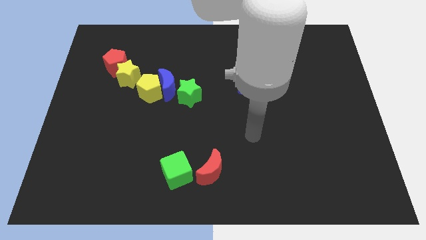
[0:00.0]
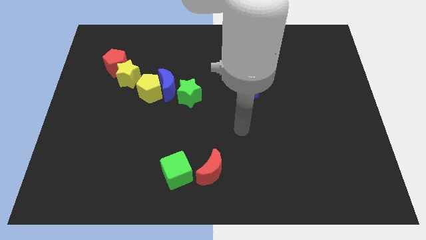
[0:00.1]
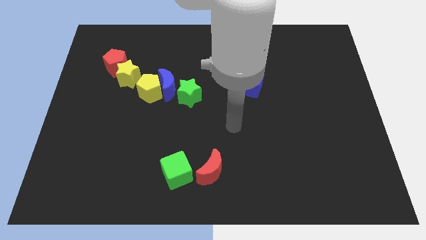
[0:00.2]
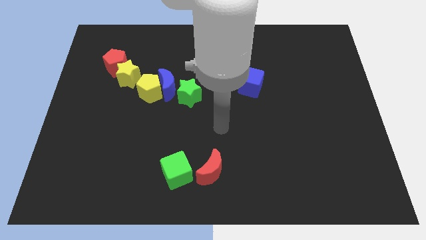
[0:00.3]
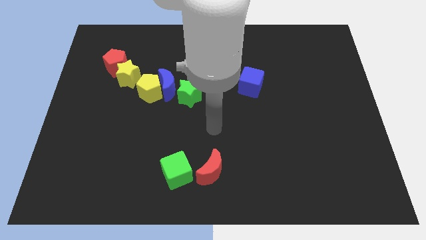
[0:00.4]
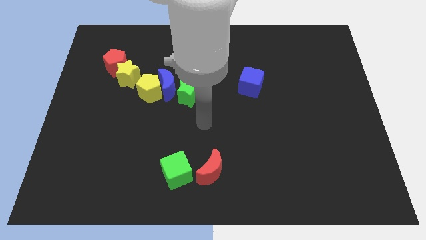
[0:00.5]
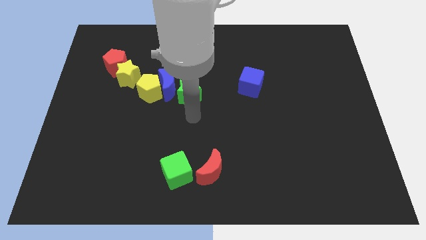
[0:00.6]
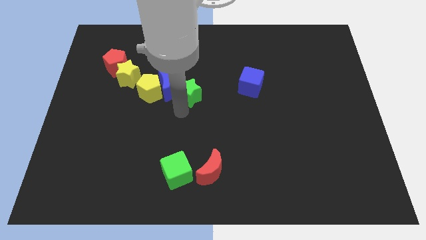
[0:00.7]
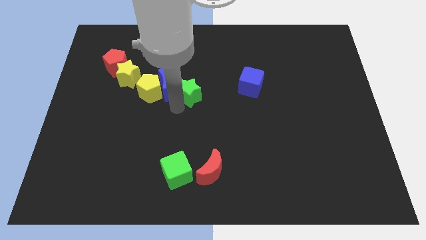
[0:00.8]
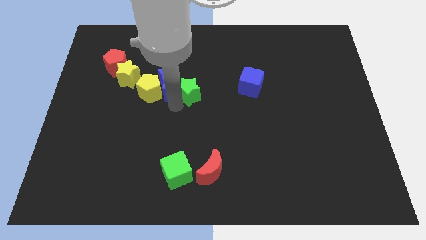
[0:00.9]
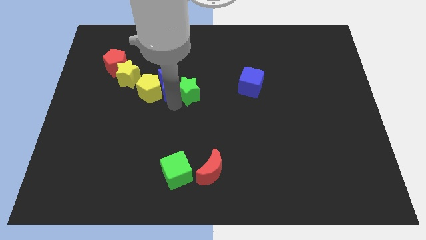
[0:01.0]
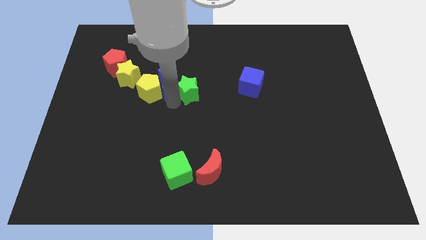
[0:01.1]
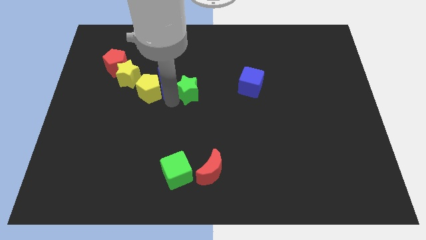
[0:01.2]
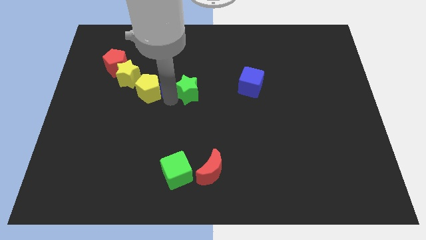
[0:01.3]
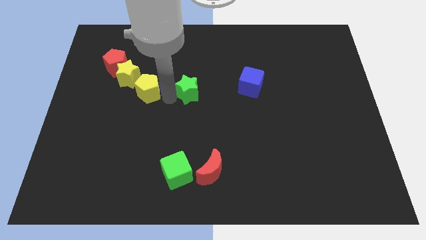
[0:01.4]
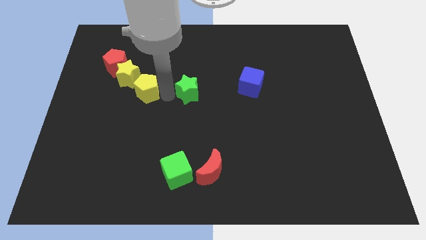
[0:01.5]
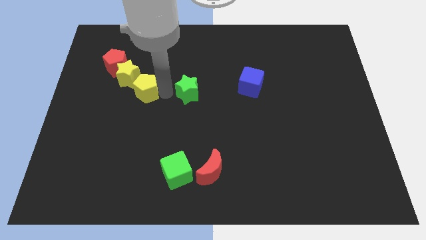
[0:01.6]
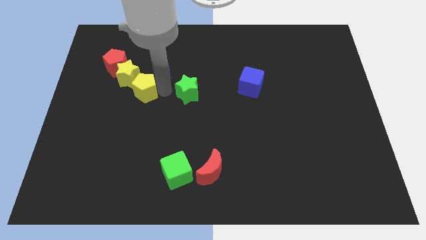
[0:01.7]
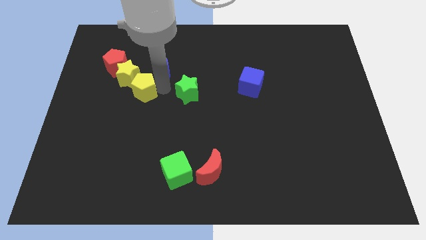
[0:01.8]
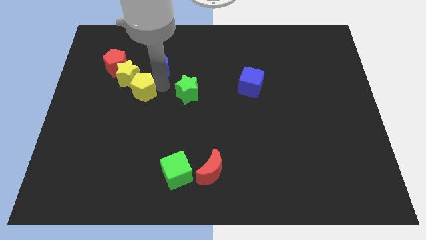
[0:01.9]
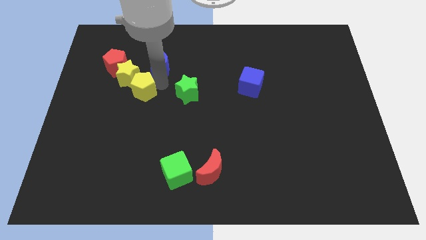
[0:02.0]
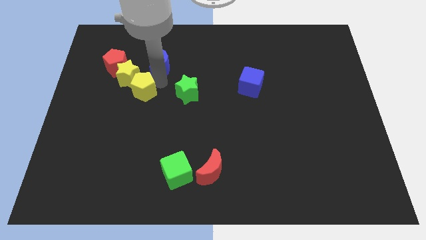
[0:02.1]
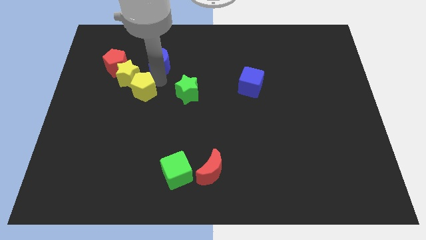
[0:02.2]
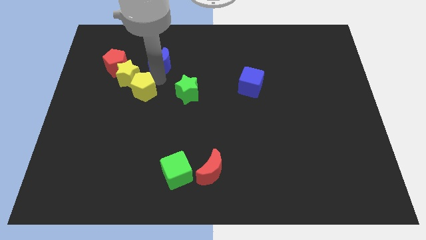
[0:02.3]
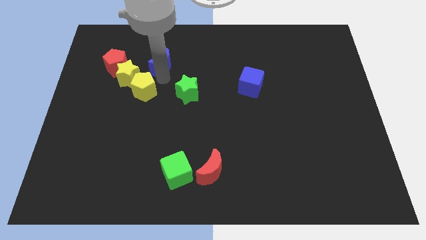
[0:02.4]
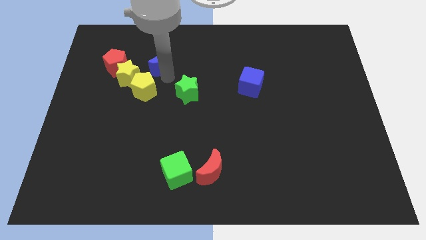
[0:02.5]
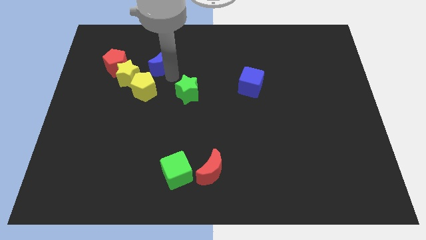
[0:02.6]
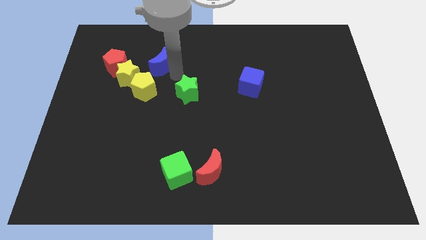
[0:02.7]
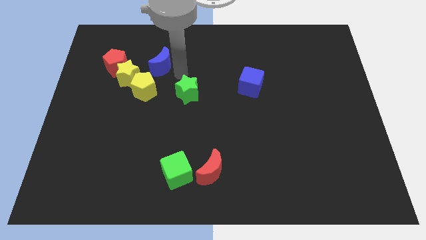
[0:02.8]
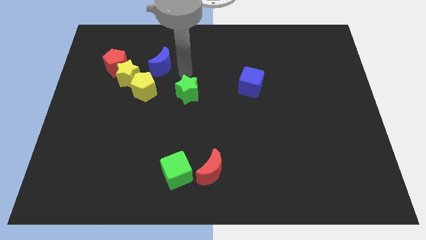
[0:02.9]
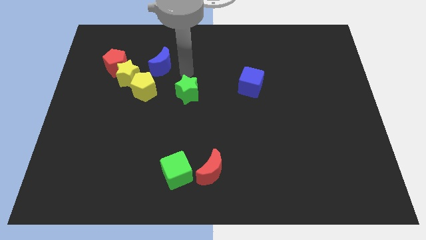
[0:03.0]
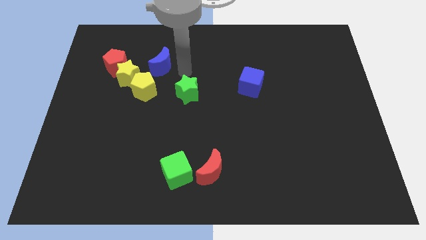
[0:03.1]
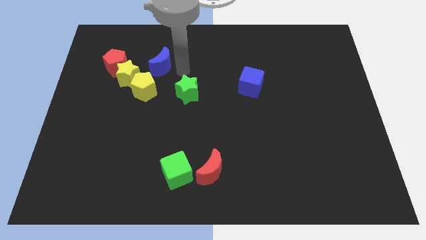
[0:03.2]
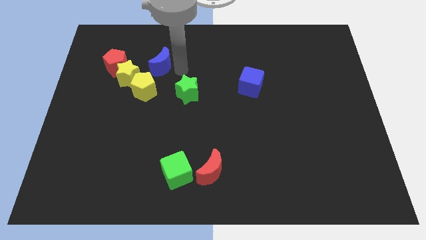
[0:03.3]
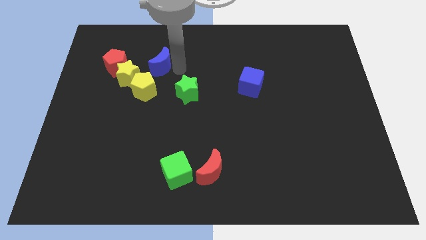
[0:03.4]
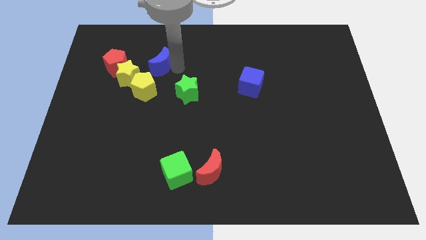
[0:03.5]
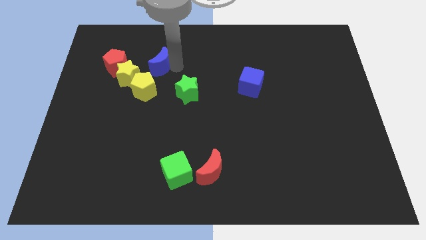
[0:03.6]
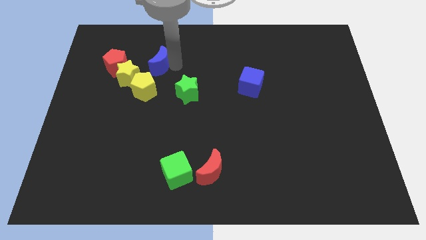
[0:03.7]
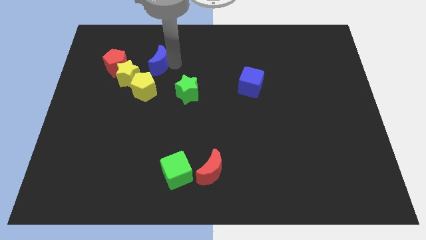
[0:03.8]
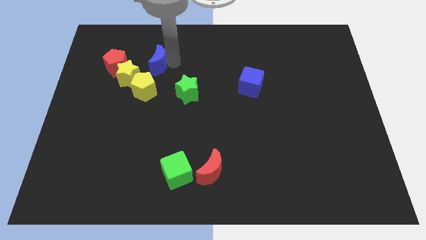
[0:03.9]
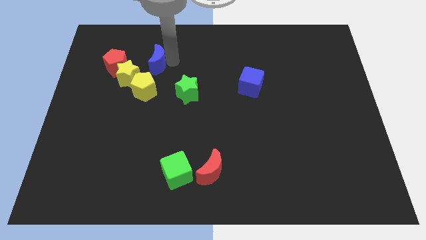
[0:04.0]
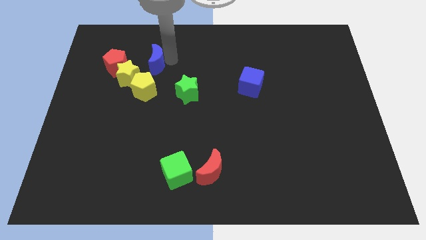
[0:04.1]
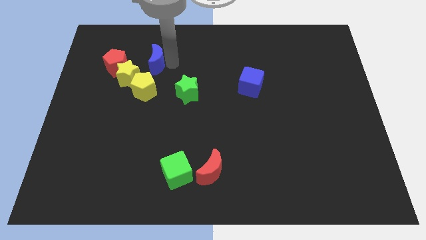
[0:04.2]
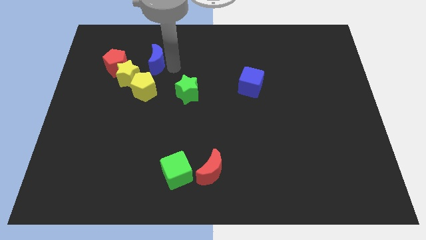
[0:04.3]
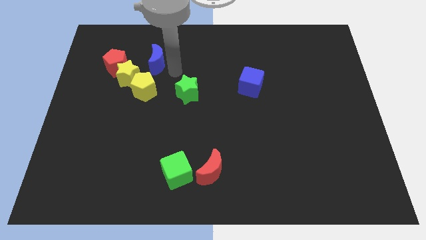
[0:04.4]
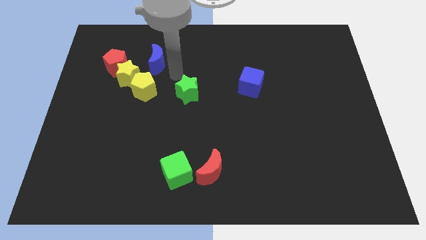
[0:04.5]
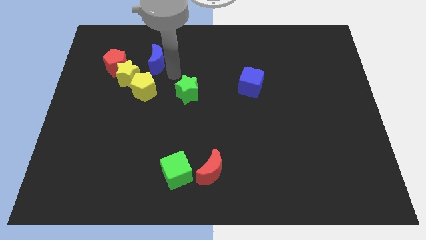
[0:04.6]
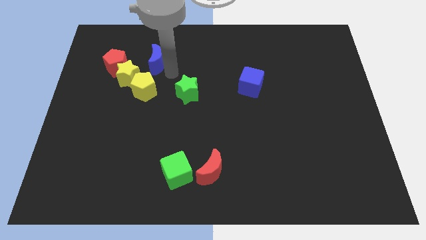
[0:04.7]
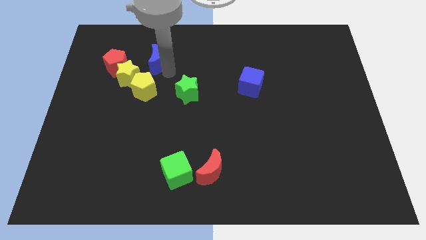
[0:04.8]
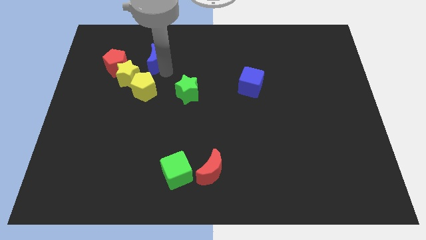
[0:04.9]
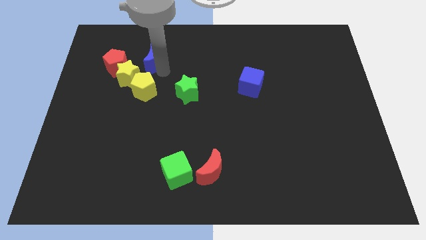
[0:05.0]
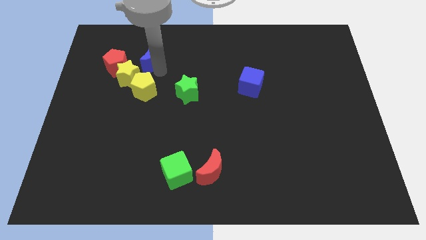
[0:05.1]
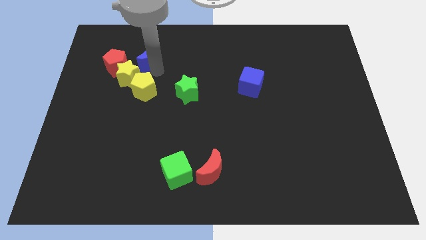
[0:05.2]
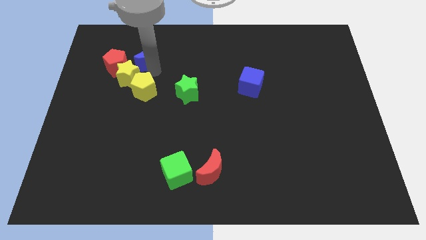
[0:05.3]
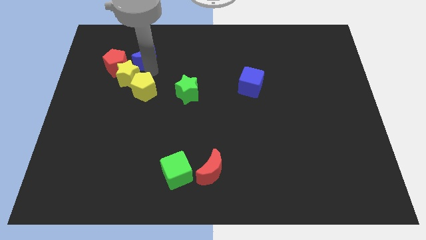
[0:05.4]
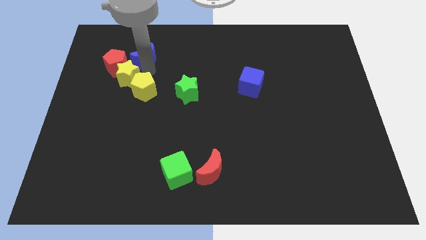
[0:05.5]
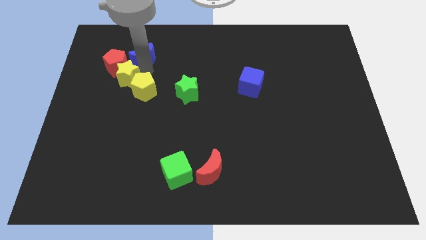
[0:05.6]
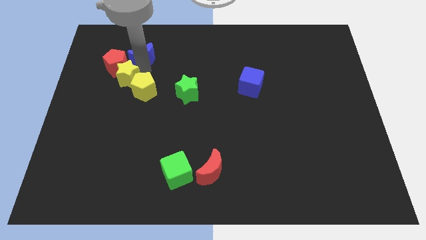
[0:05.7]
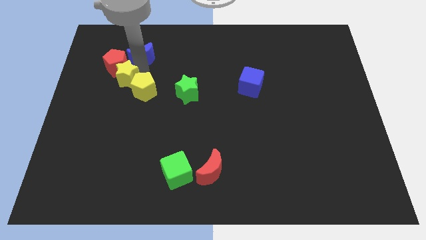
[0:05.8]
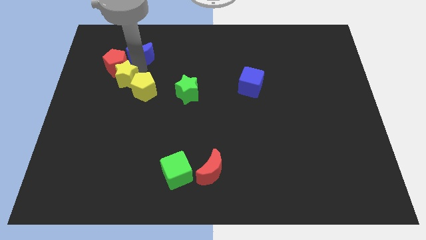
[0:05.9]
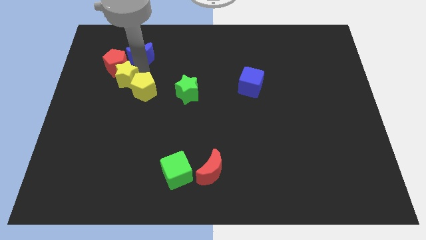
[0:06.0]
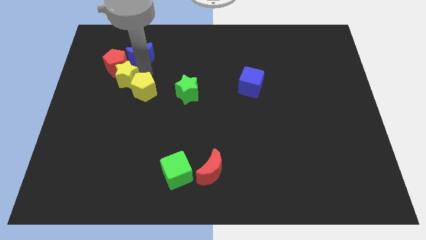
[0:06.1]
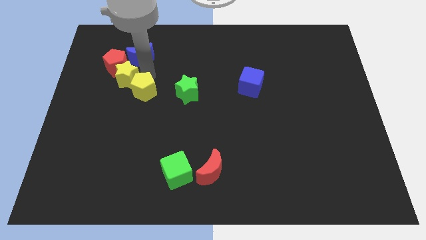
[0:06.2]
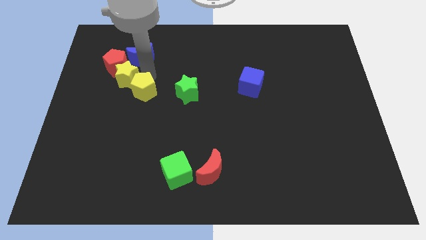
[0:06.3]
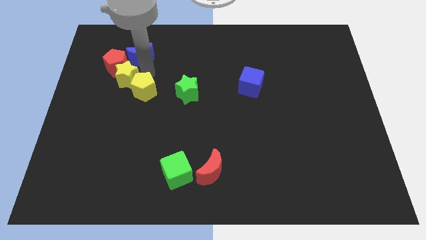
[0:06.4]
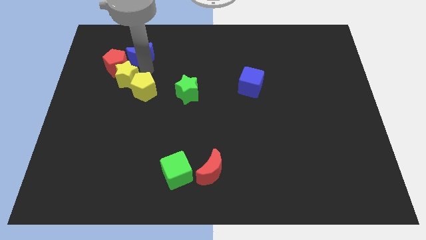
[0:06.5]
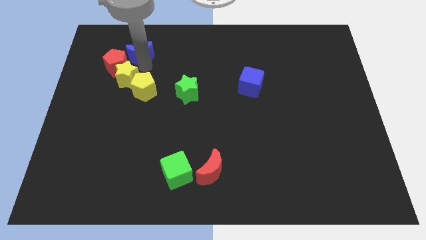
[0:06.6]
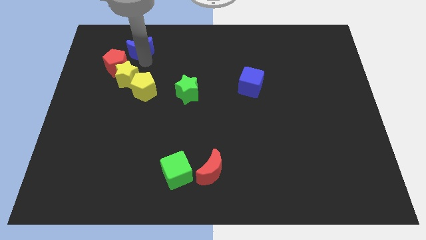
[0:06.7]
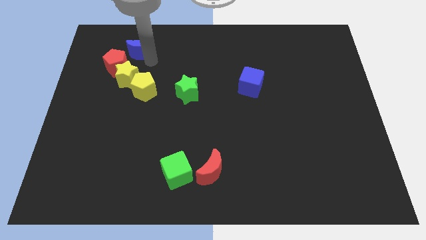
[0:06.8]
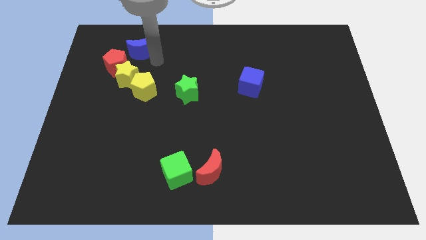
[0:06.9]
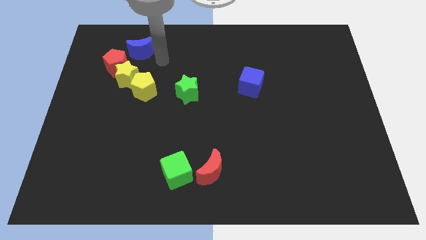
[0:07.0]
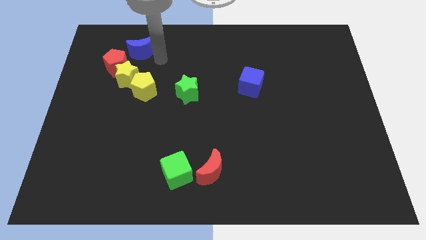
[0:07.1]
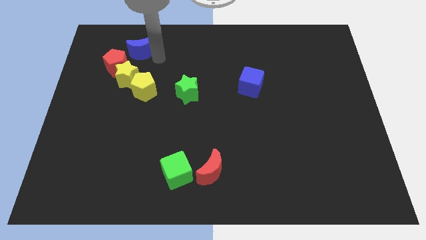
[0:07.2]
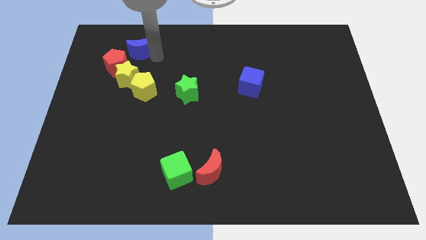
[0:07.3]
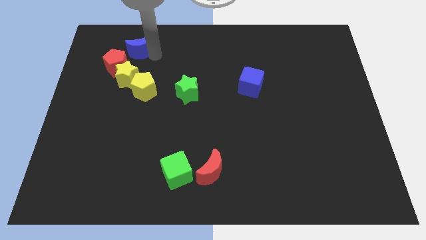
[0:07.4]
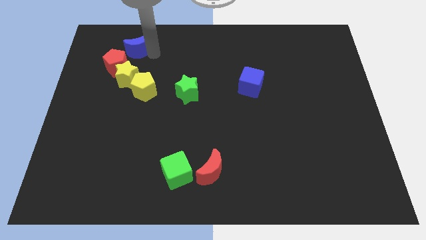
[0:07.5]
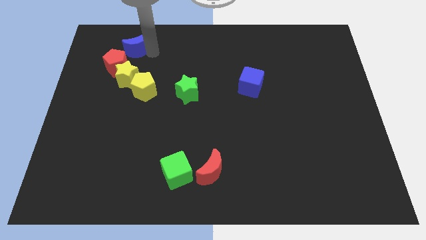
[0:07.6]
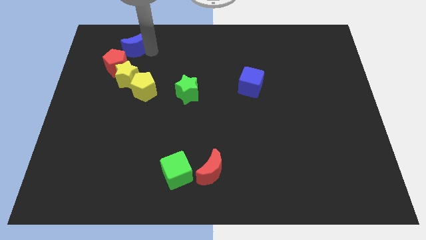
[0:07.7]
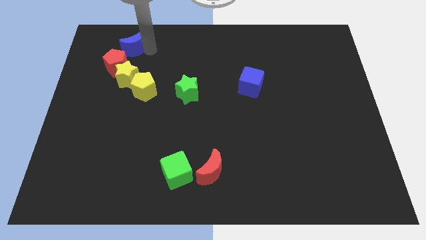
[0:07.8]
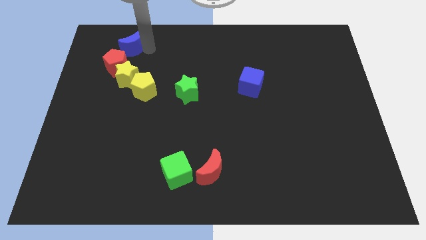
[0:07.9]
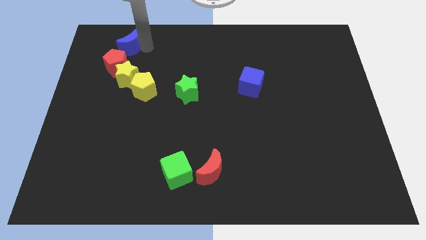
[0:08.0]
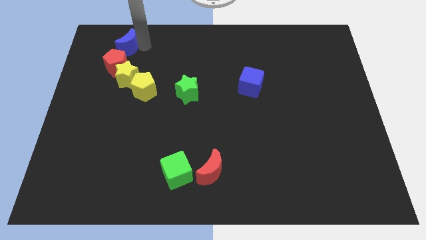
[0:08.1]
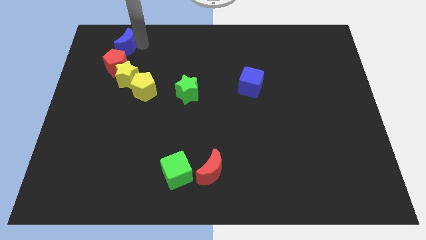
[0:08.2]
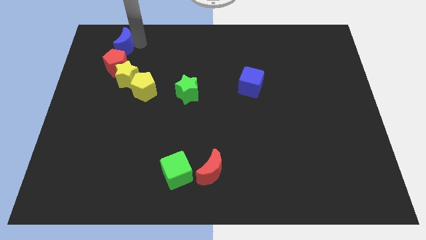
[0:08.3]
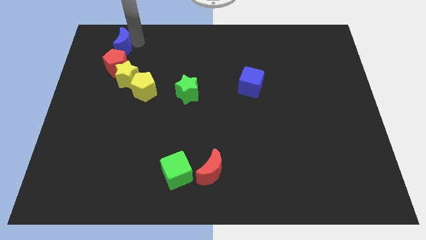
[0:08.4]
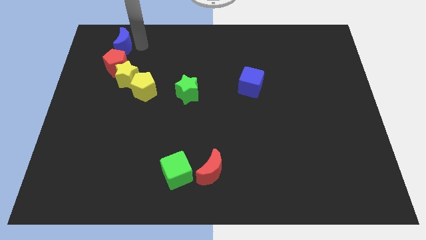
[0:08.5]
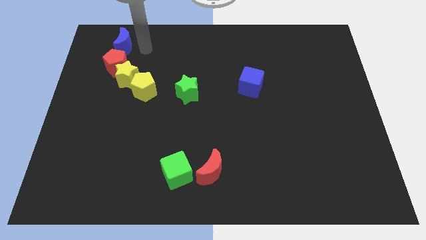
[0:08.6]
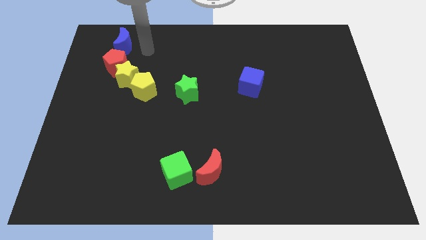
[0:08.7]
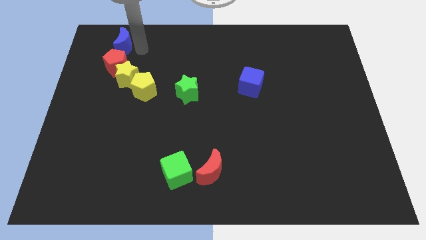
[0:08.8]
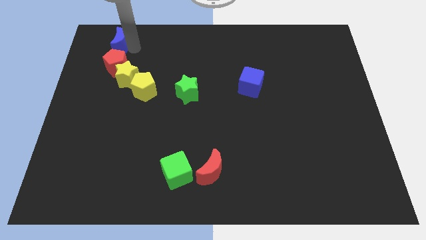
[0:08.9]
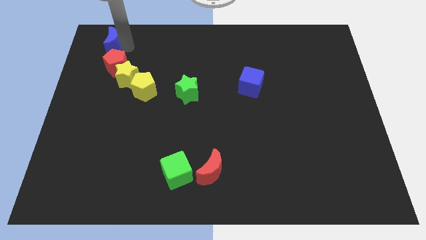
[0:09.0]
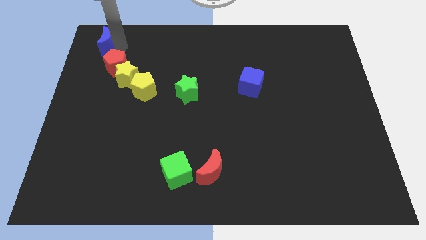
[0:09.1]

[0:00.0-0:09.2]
push the blue moon to the top left of the board
